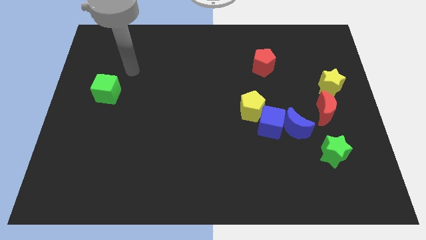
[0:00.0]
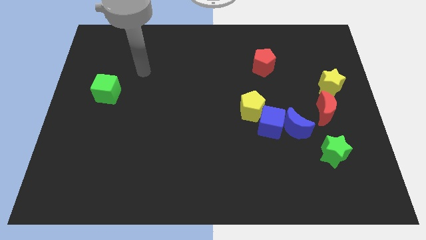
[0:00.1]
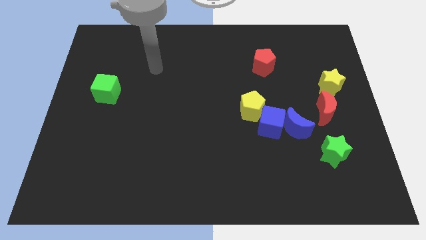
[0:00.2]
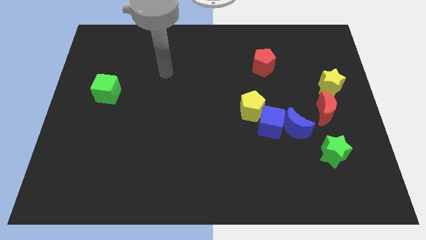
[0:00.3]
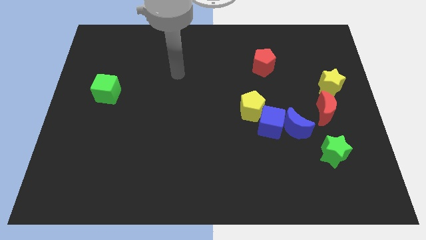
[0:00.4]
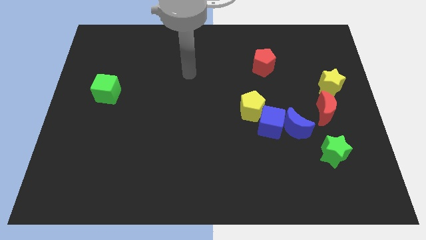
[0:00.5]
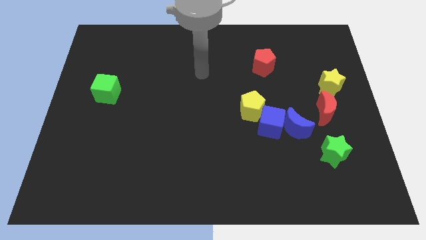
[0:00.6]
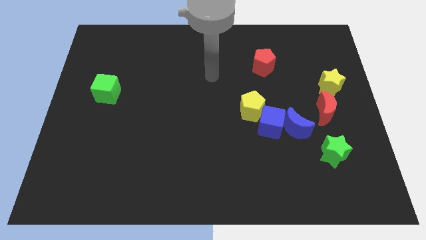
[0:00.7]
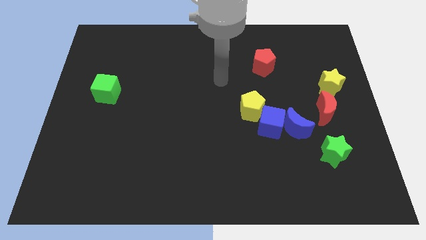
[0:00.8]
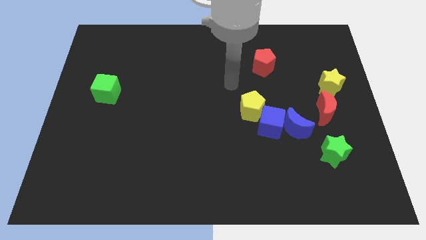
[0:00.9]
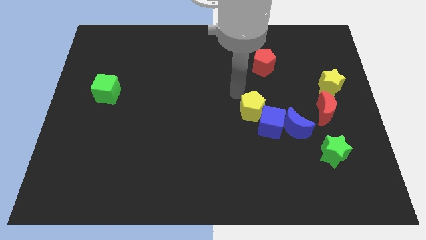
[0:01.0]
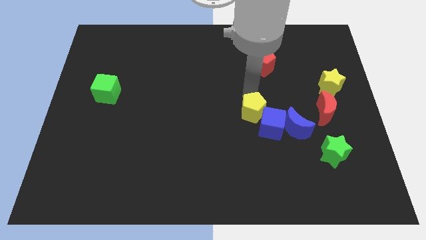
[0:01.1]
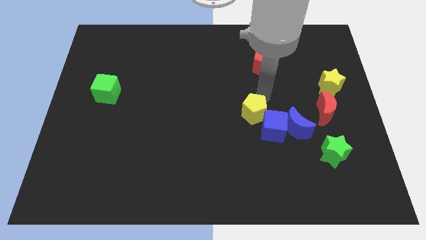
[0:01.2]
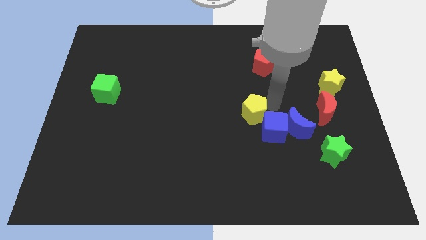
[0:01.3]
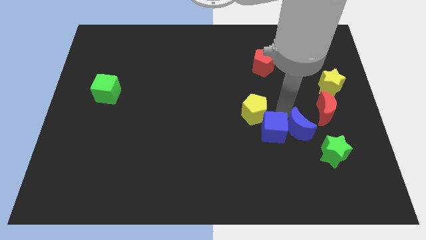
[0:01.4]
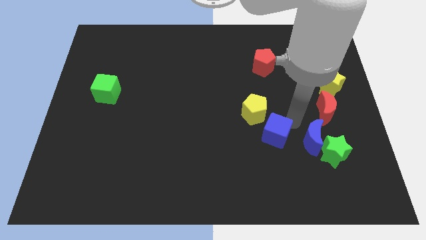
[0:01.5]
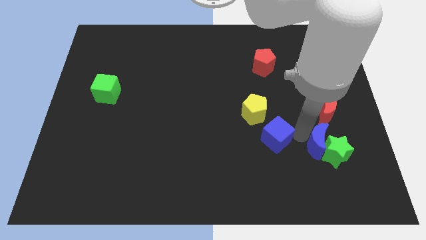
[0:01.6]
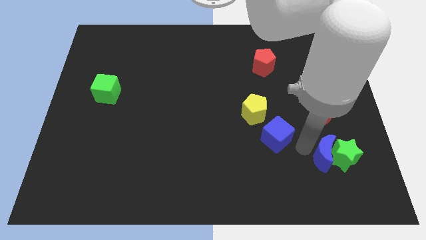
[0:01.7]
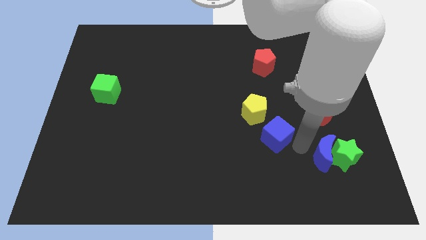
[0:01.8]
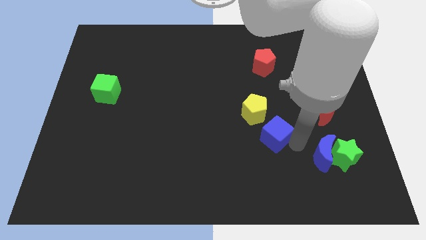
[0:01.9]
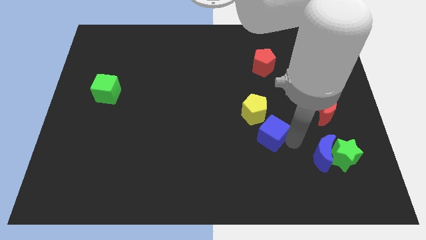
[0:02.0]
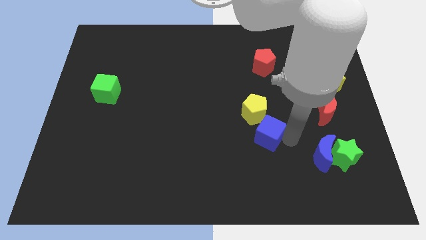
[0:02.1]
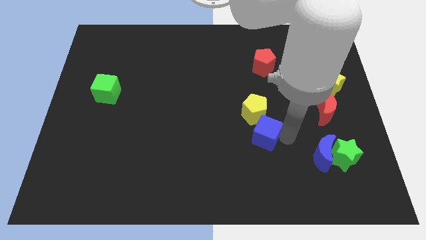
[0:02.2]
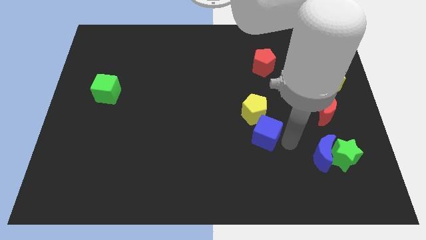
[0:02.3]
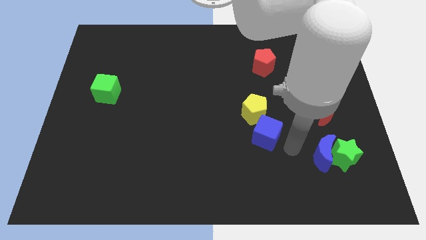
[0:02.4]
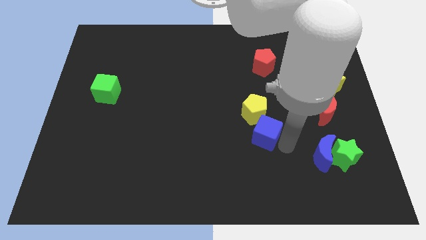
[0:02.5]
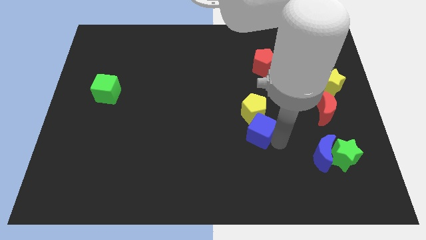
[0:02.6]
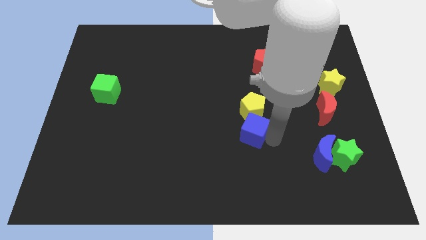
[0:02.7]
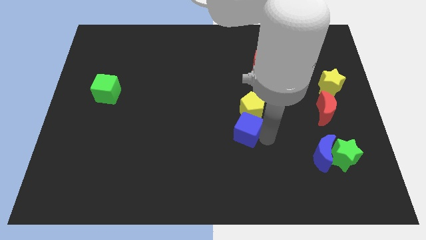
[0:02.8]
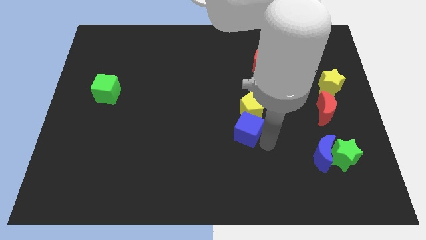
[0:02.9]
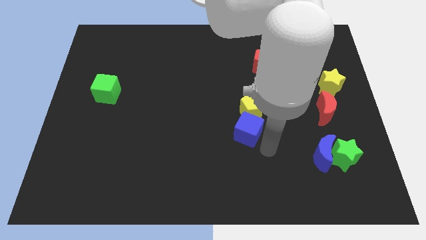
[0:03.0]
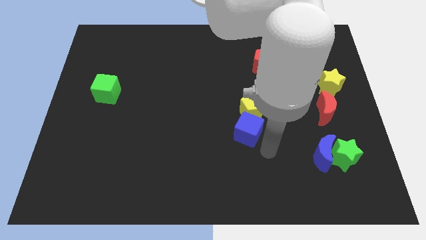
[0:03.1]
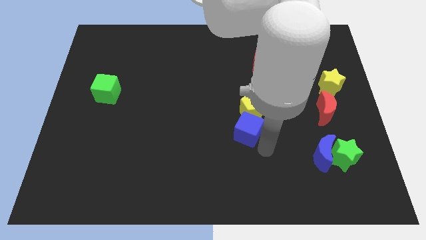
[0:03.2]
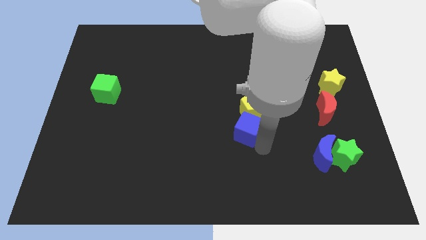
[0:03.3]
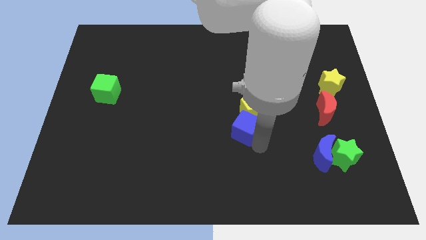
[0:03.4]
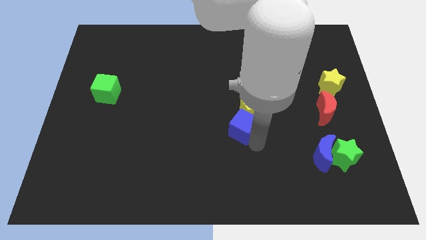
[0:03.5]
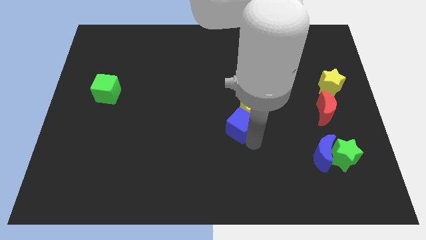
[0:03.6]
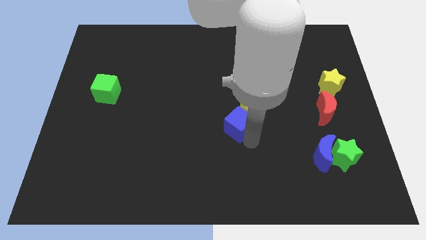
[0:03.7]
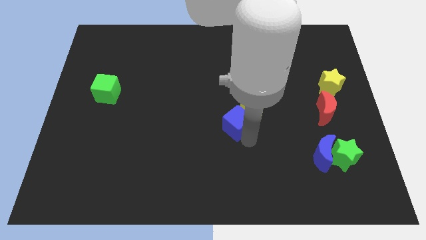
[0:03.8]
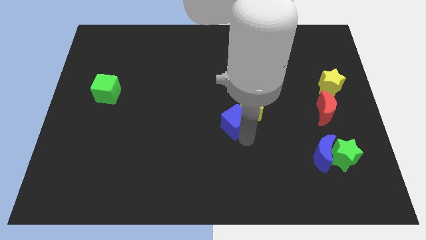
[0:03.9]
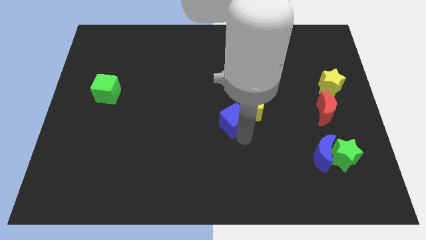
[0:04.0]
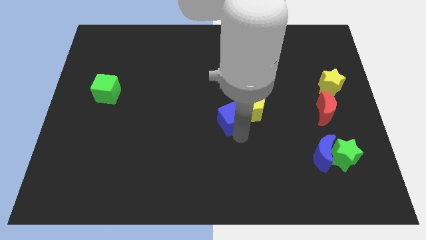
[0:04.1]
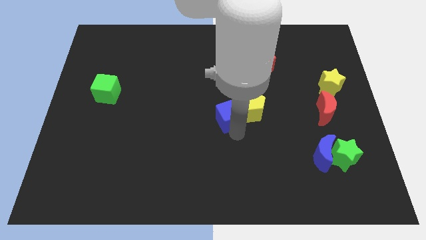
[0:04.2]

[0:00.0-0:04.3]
slightly move the blue cube up and to the left

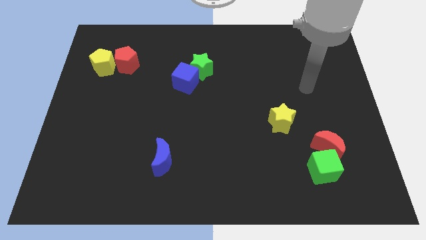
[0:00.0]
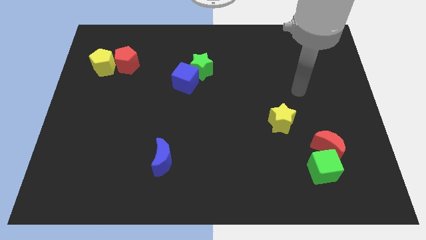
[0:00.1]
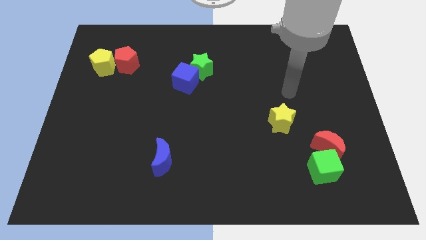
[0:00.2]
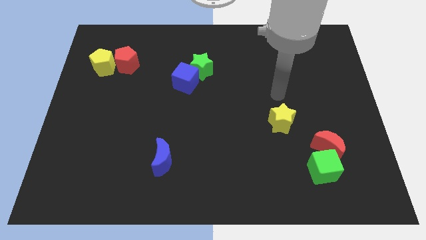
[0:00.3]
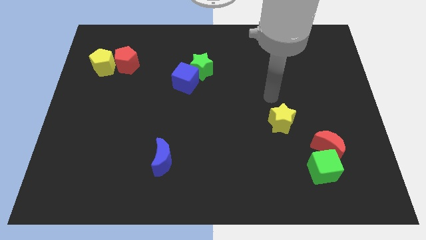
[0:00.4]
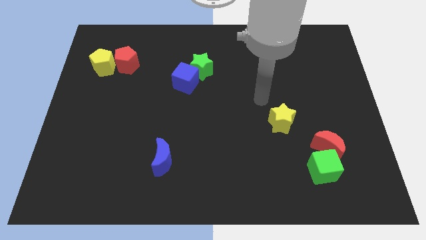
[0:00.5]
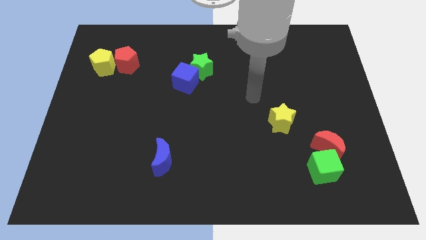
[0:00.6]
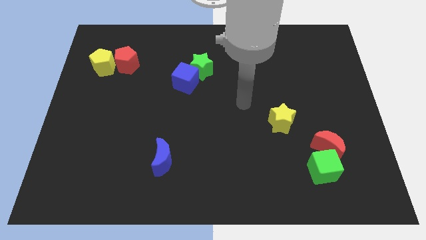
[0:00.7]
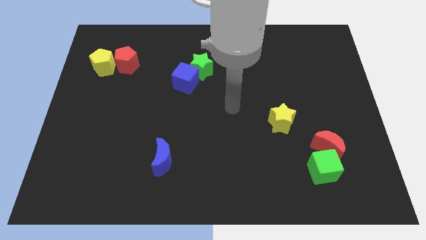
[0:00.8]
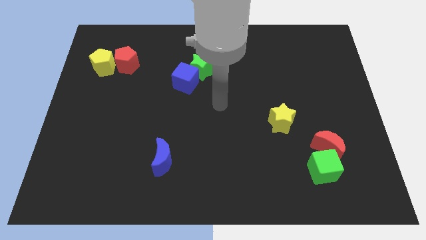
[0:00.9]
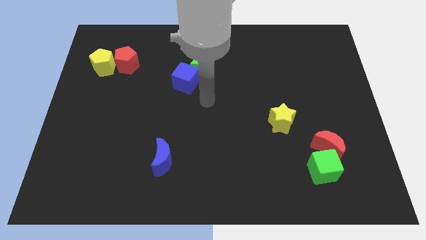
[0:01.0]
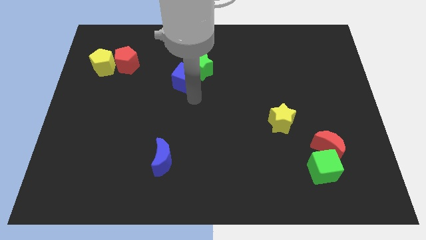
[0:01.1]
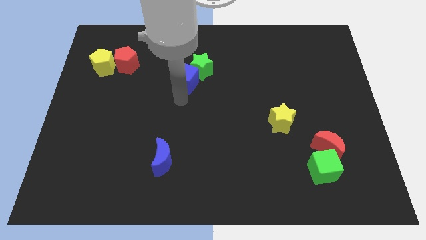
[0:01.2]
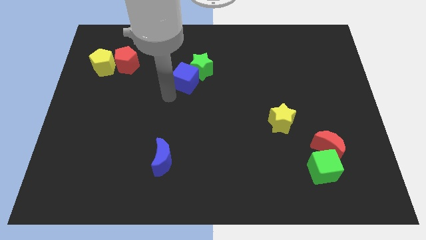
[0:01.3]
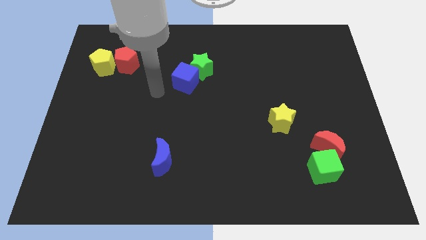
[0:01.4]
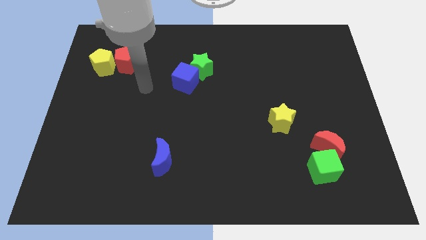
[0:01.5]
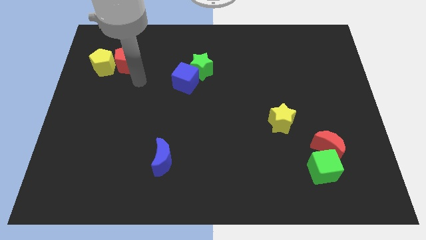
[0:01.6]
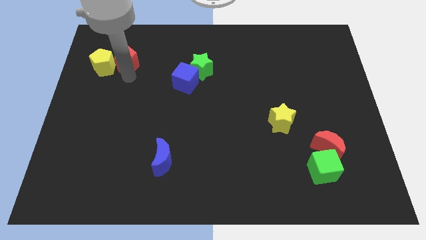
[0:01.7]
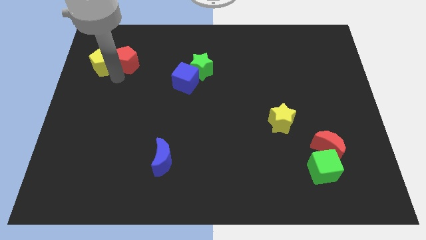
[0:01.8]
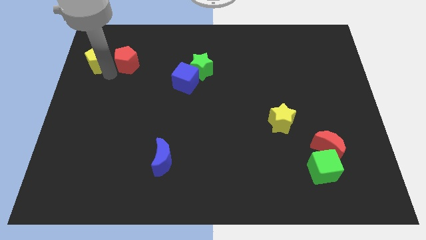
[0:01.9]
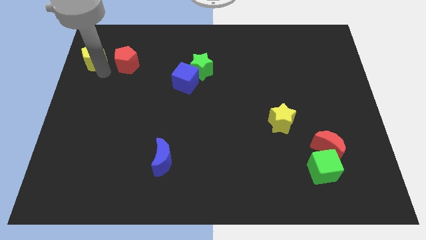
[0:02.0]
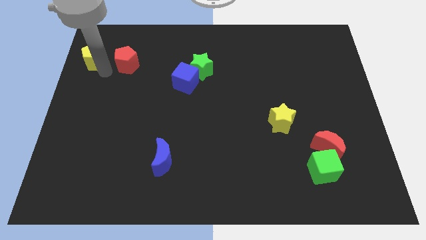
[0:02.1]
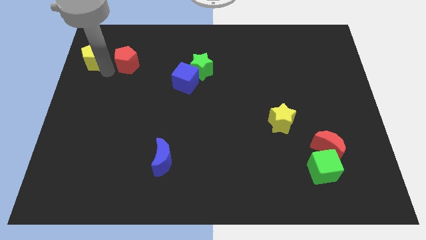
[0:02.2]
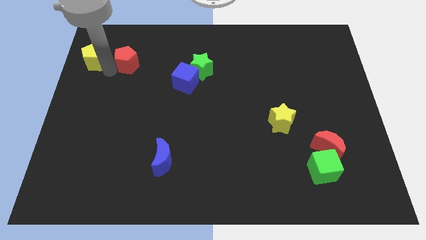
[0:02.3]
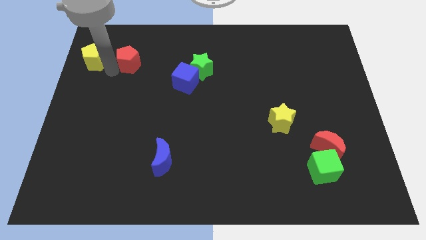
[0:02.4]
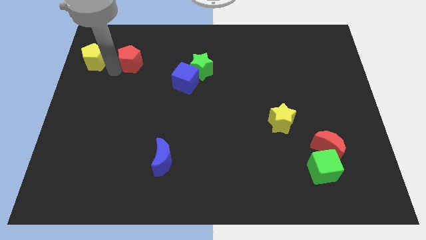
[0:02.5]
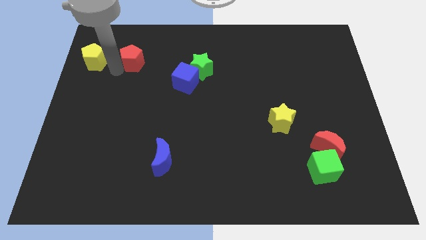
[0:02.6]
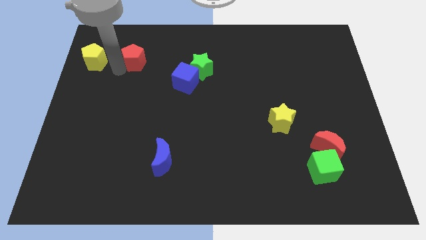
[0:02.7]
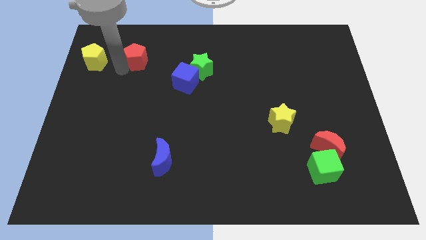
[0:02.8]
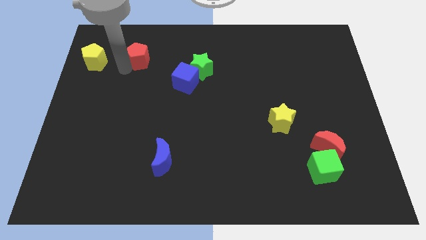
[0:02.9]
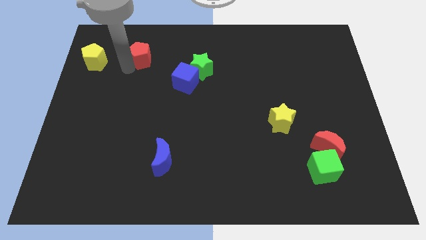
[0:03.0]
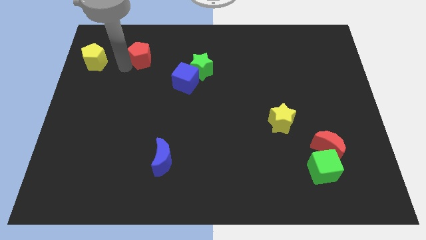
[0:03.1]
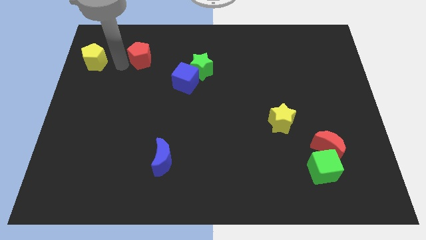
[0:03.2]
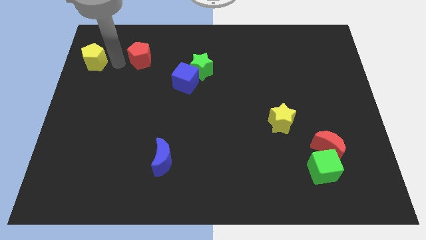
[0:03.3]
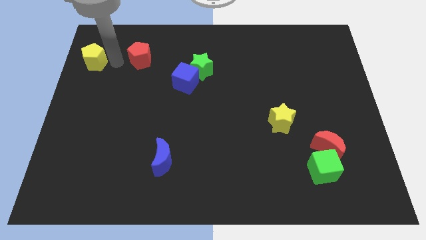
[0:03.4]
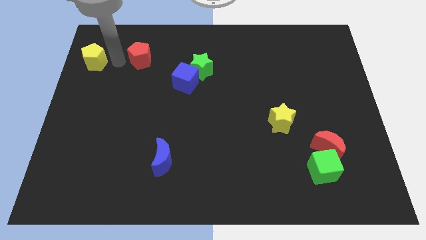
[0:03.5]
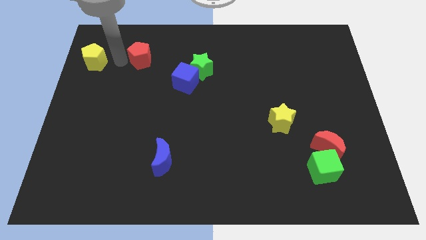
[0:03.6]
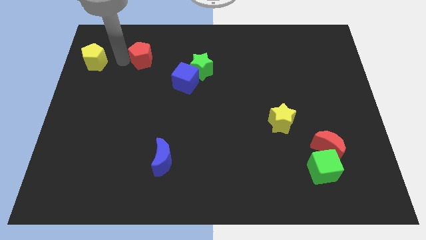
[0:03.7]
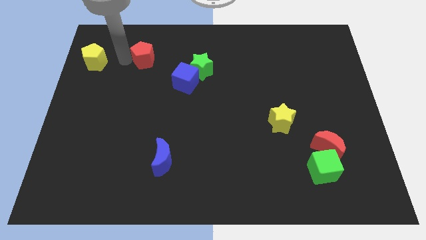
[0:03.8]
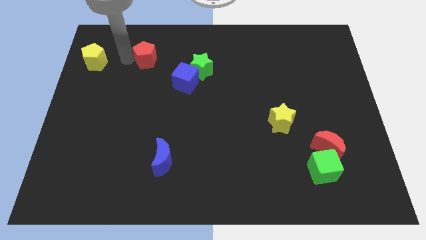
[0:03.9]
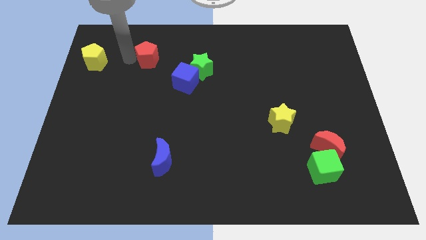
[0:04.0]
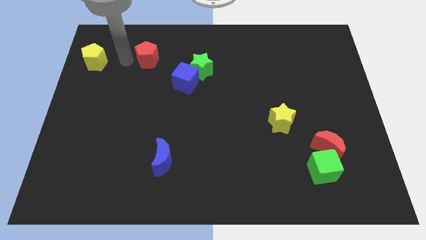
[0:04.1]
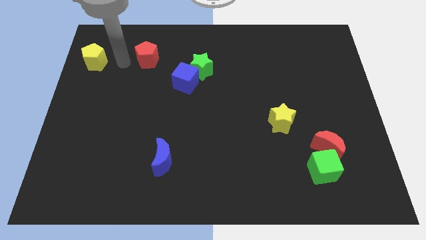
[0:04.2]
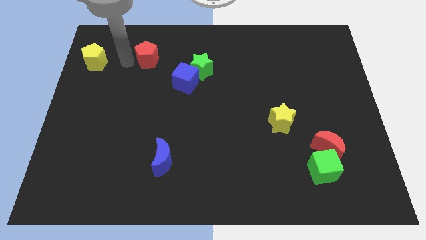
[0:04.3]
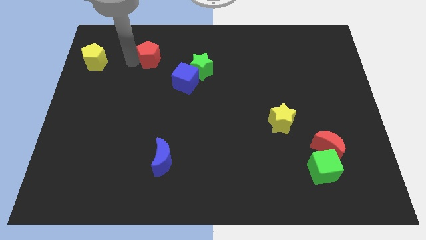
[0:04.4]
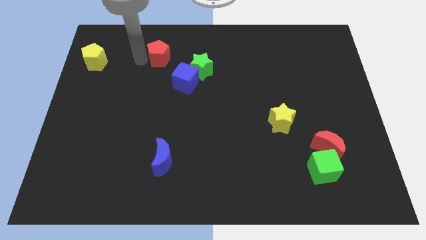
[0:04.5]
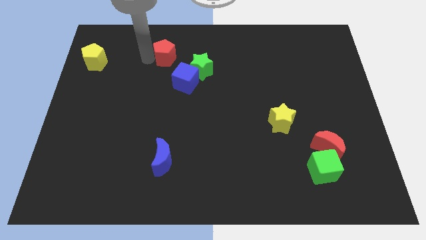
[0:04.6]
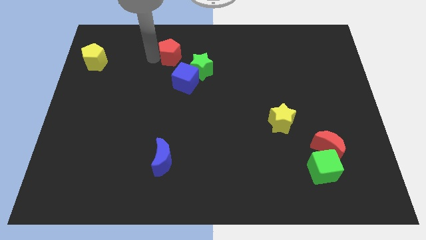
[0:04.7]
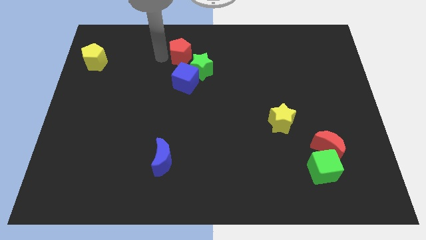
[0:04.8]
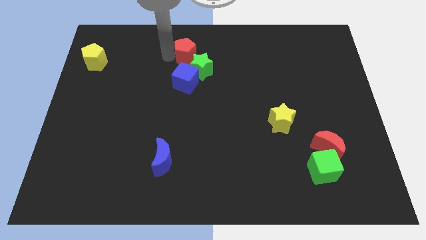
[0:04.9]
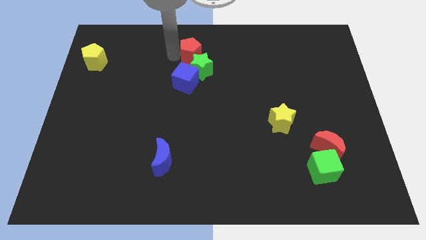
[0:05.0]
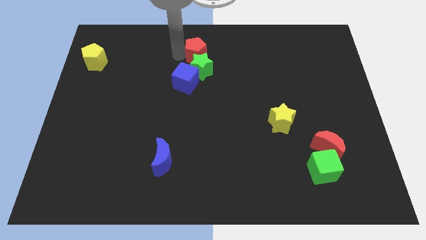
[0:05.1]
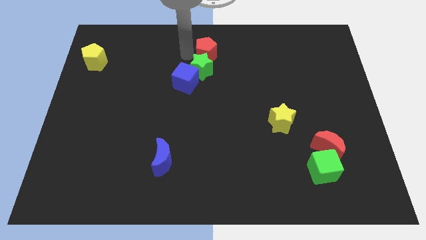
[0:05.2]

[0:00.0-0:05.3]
move the red pentagon right
